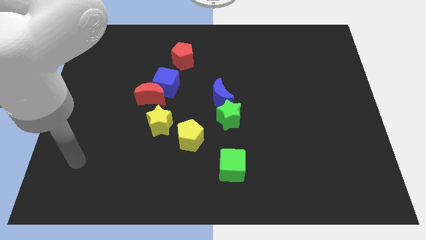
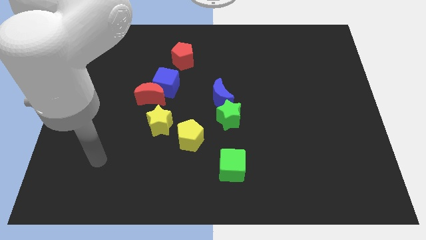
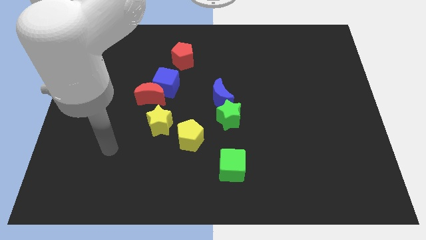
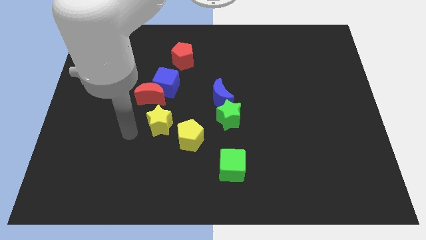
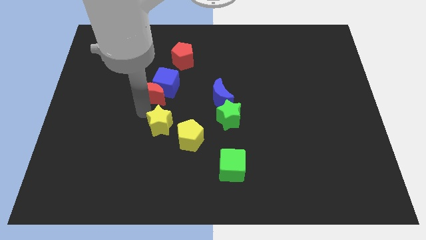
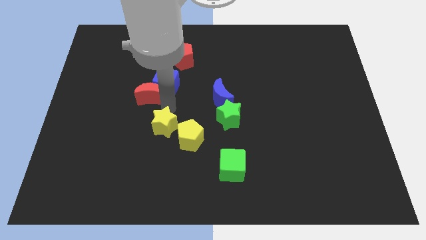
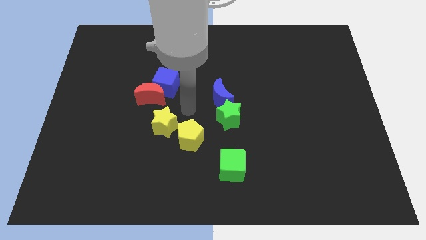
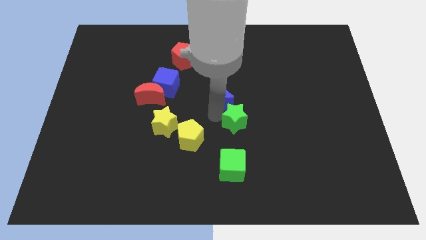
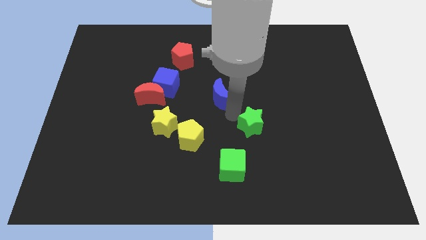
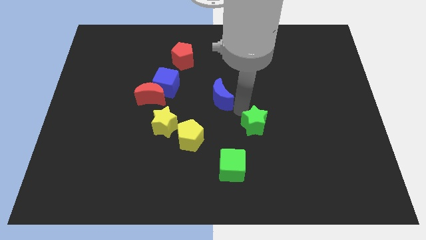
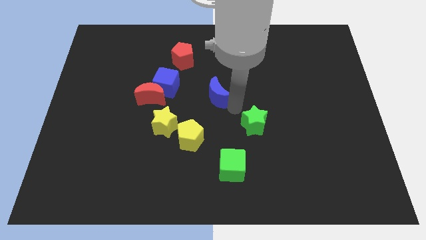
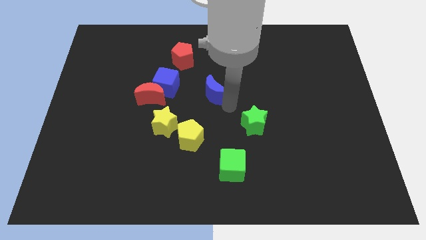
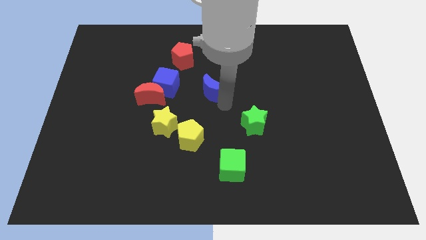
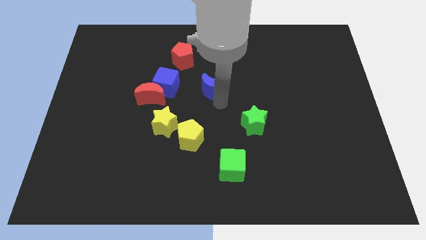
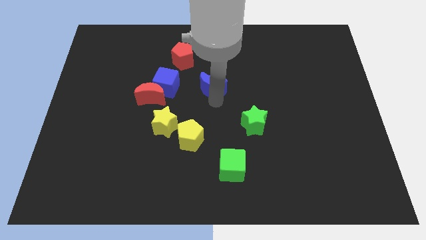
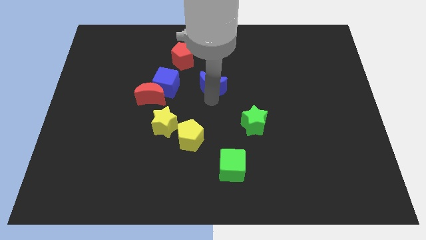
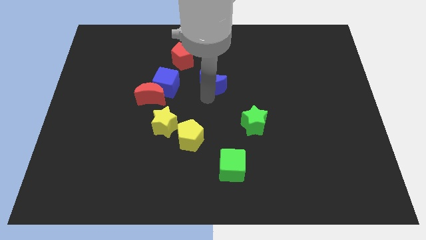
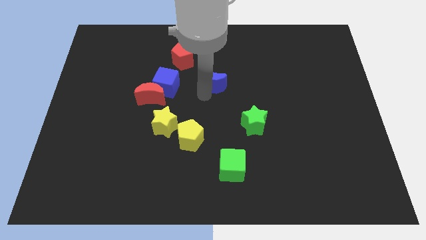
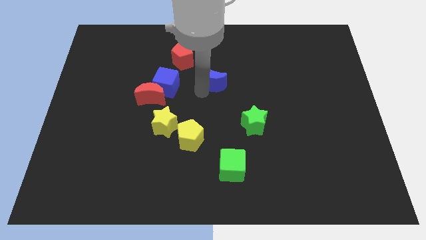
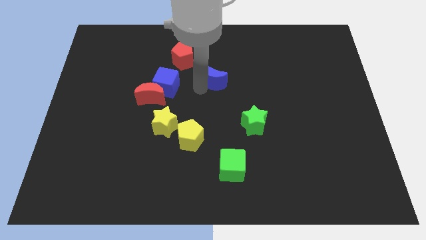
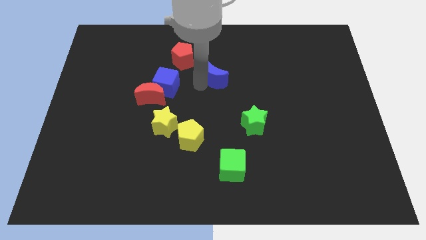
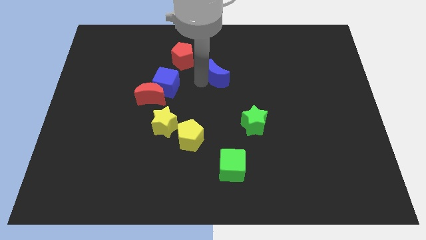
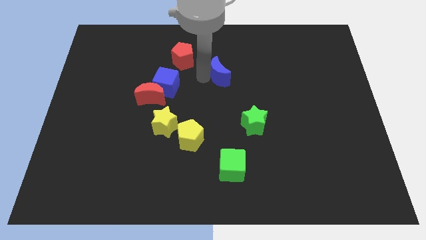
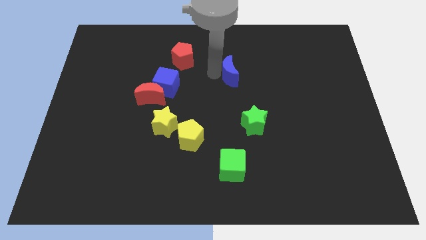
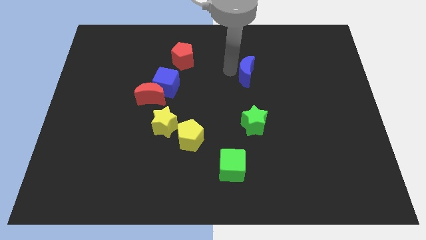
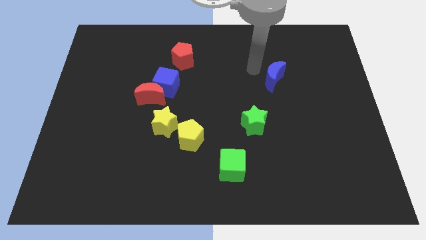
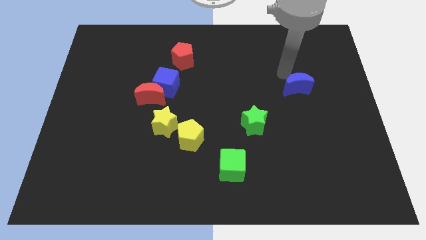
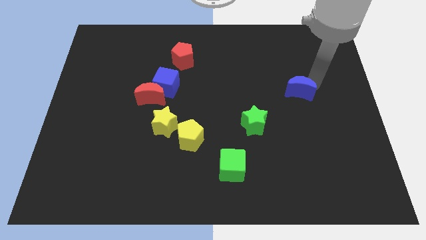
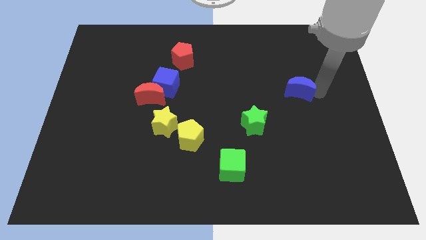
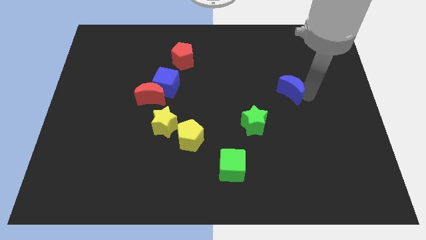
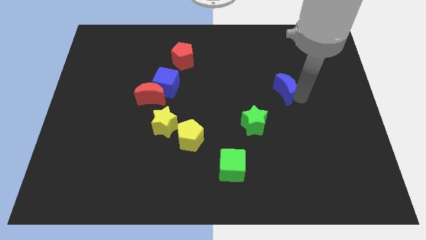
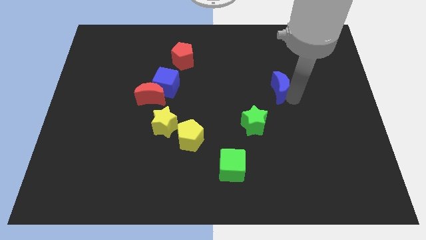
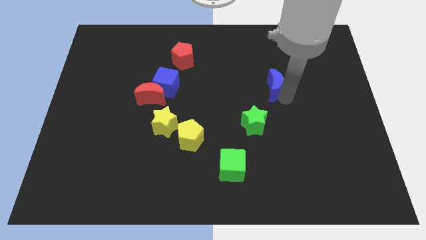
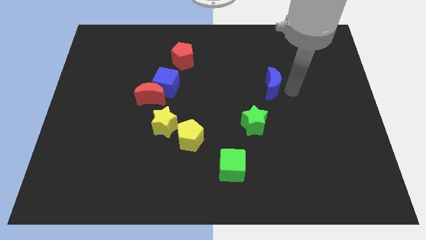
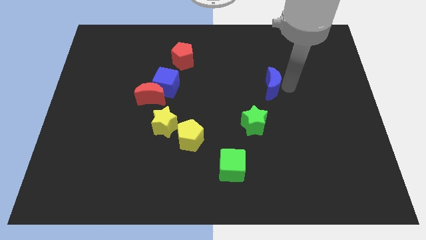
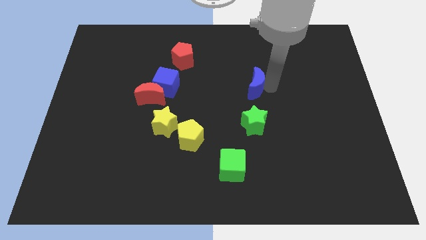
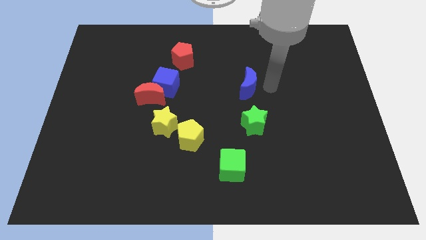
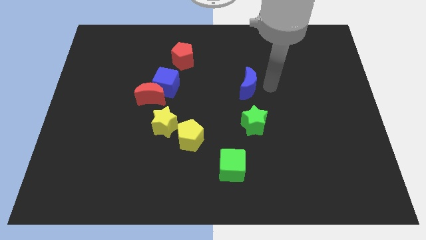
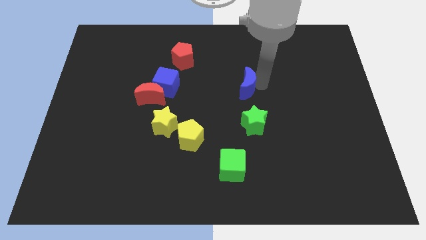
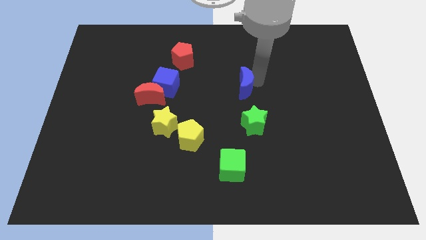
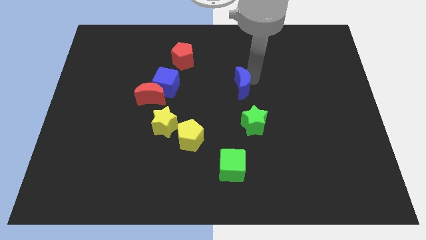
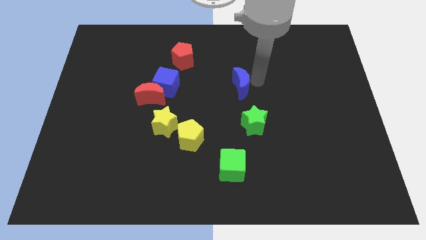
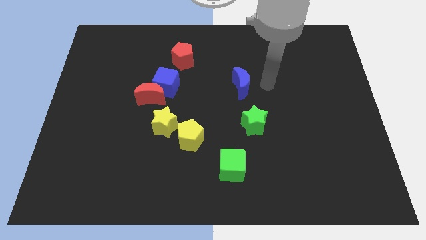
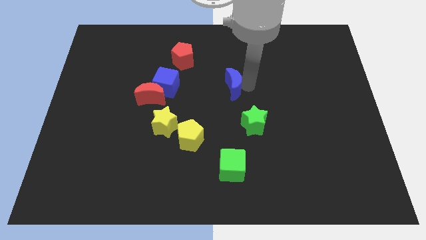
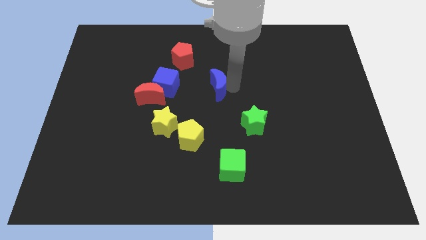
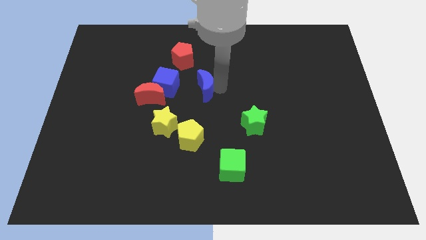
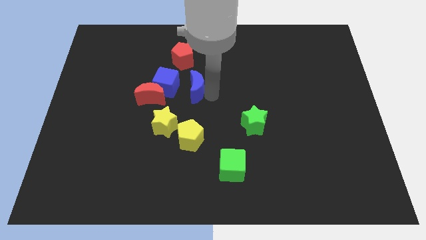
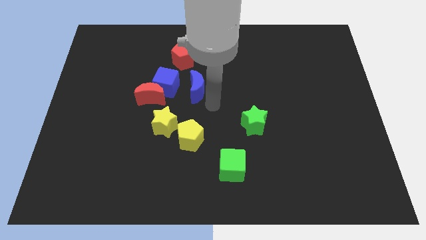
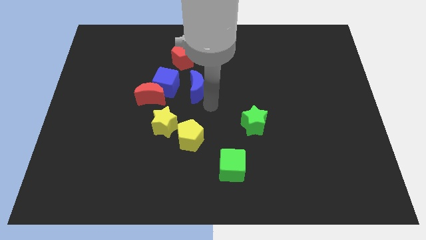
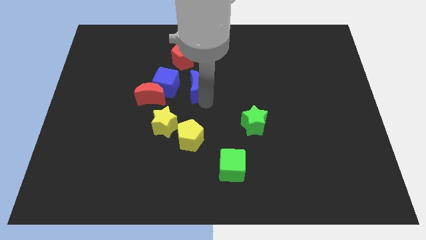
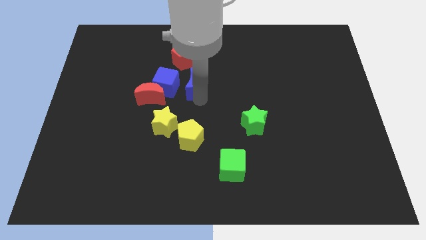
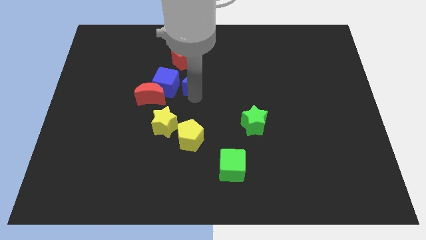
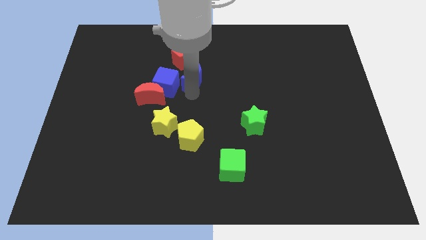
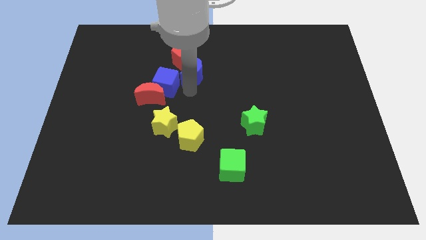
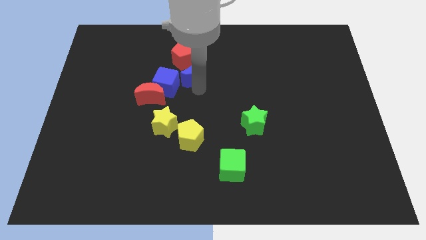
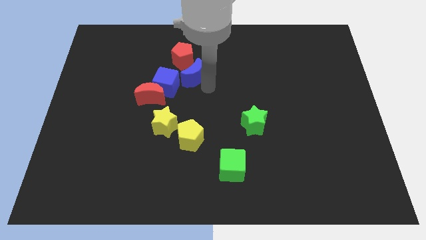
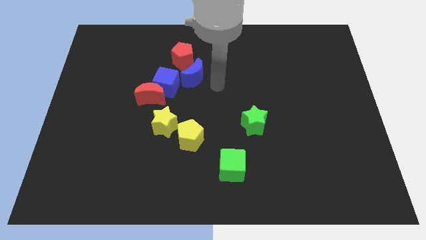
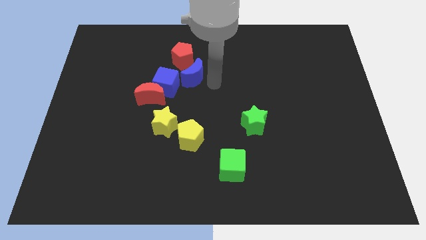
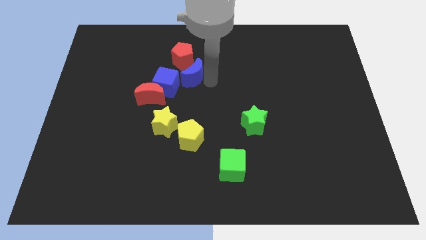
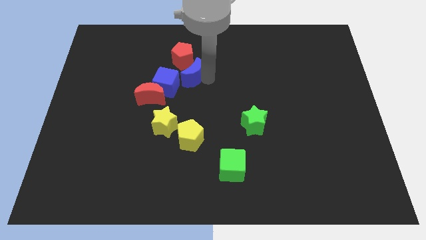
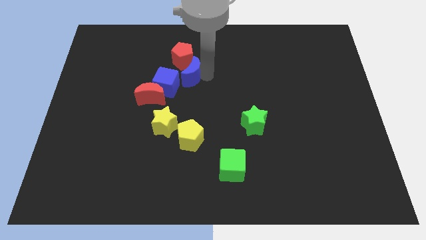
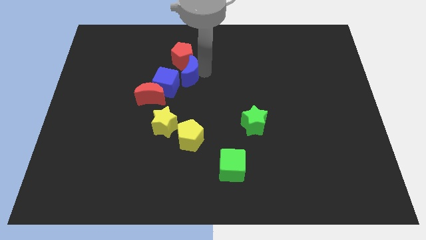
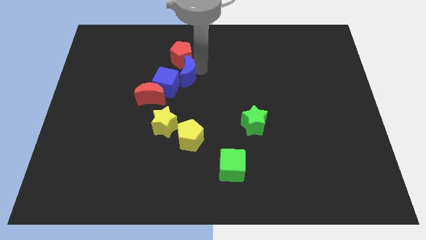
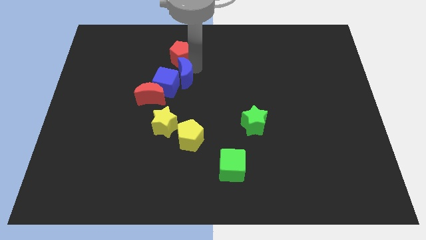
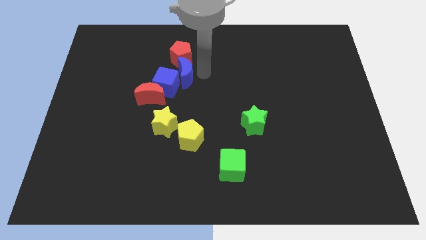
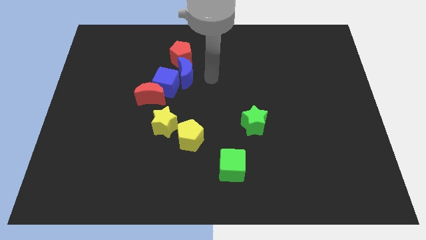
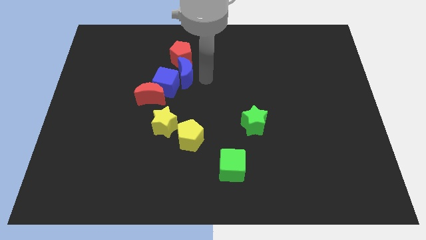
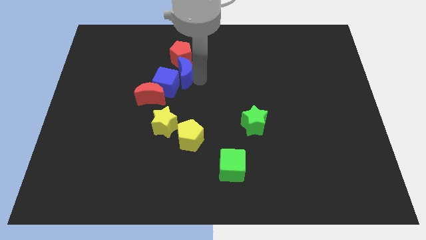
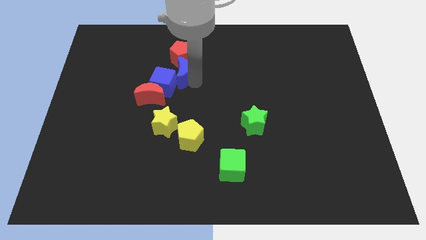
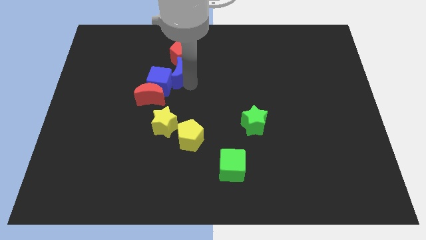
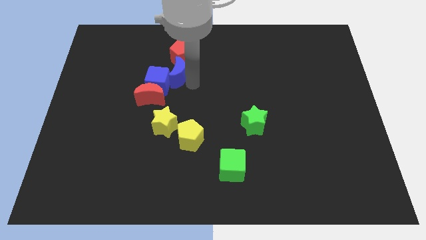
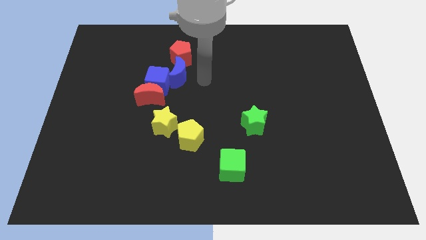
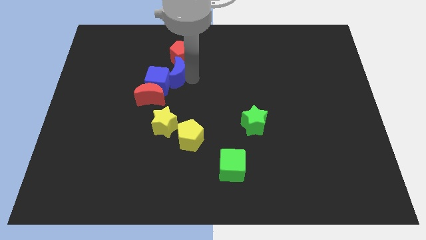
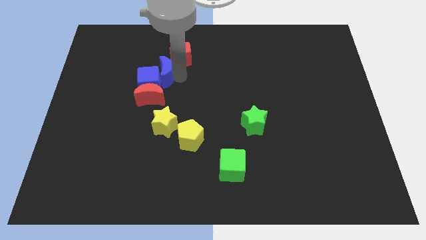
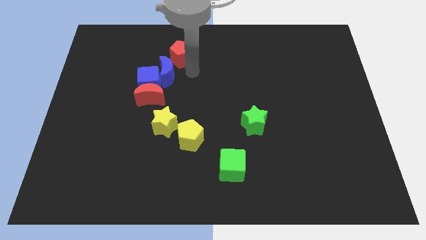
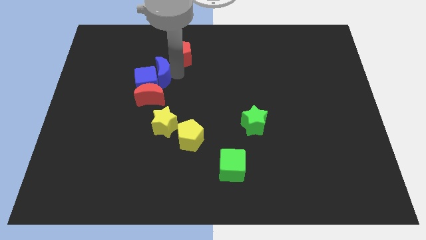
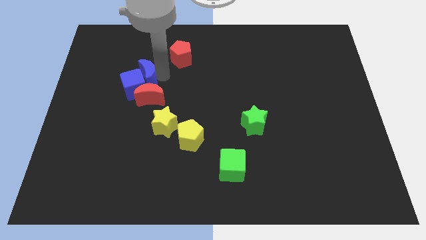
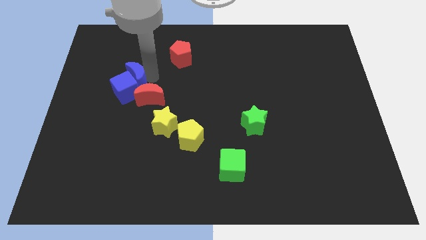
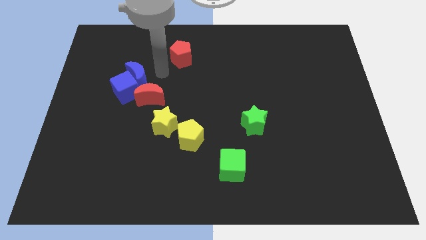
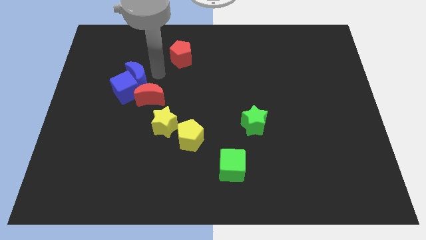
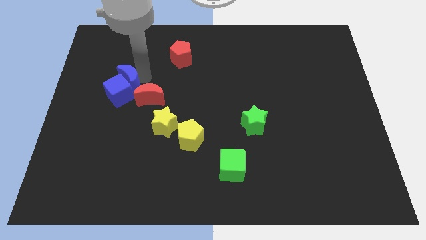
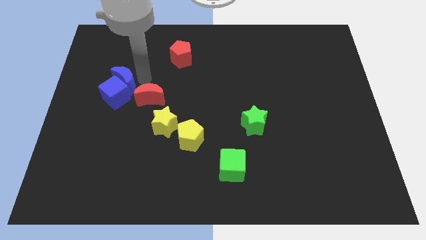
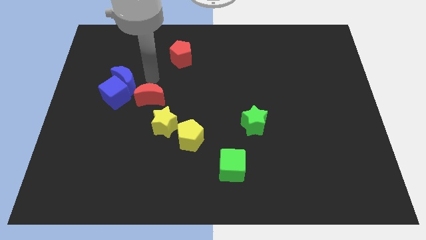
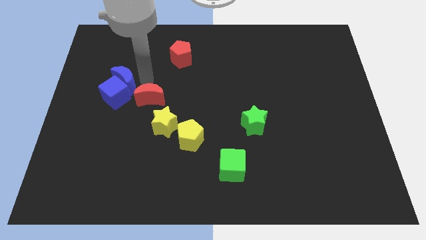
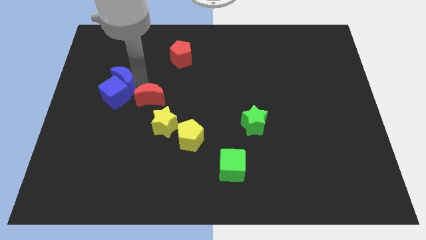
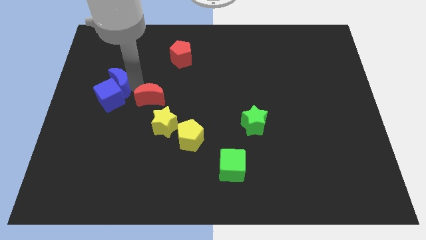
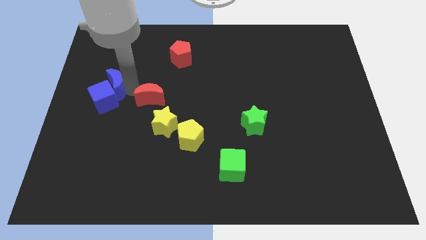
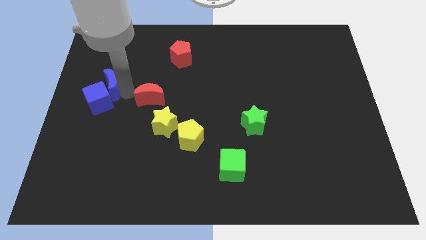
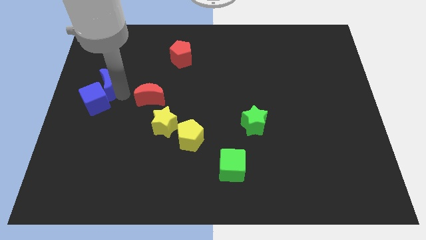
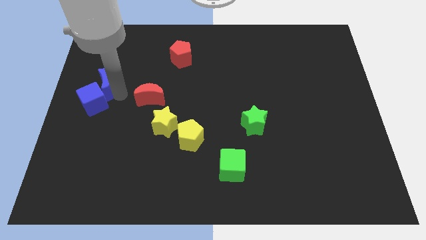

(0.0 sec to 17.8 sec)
put the blue moon to the left side of the board
